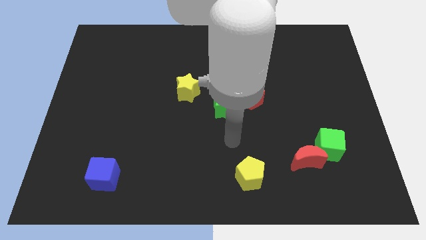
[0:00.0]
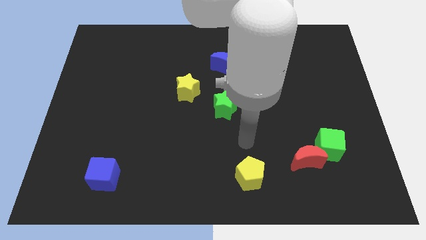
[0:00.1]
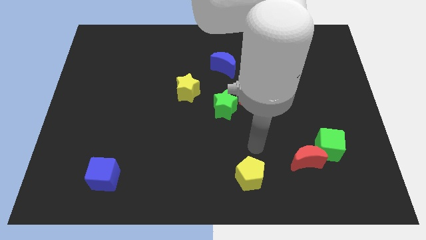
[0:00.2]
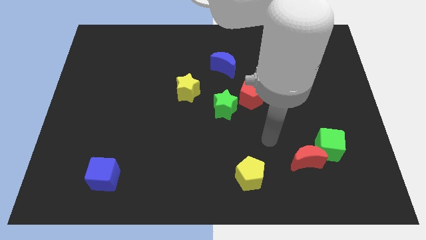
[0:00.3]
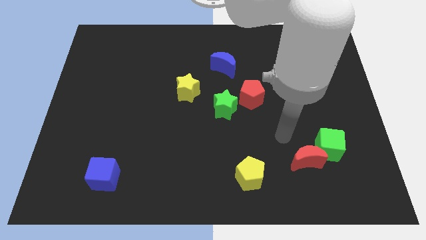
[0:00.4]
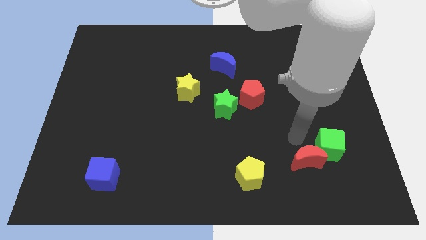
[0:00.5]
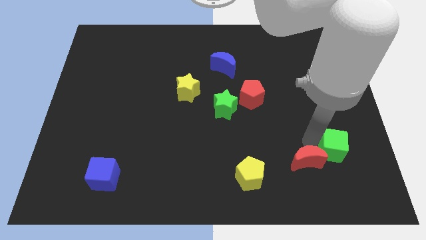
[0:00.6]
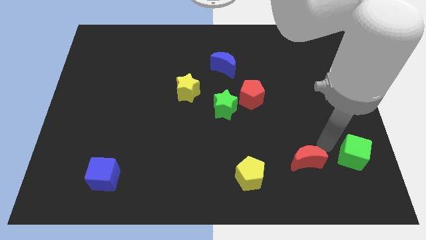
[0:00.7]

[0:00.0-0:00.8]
move the red moon away from the green cube

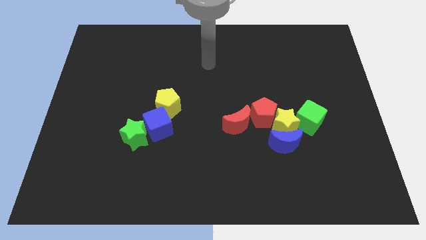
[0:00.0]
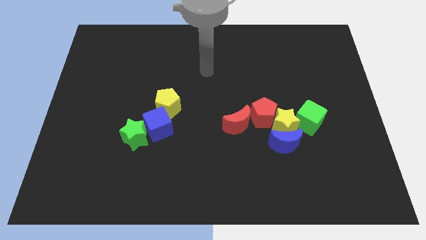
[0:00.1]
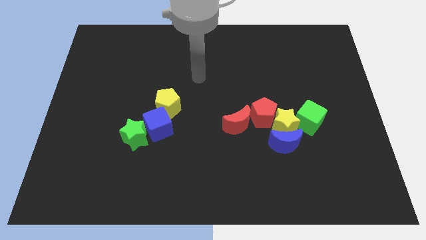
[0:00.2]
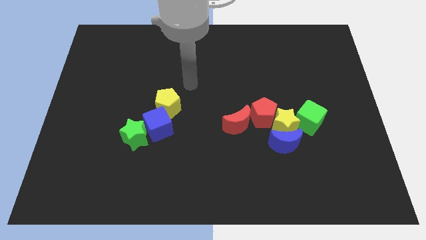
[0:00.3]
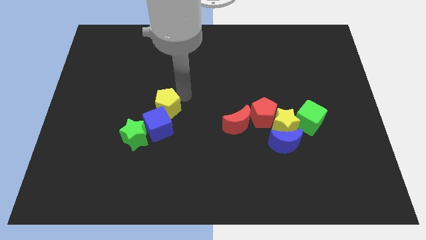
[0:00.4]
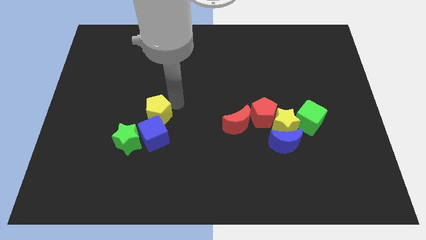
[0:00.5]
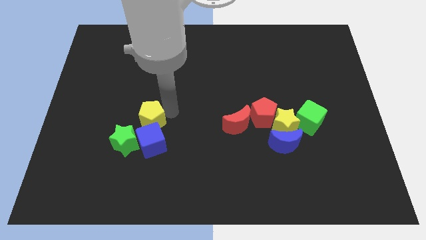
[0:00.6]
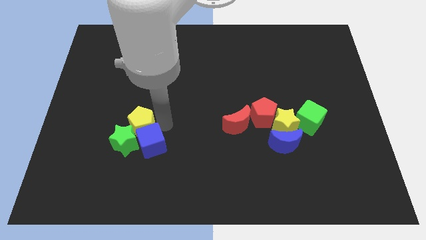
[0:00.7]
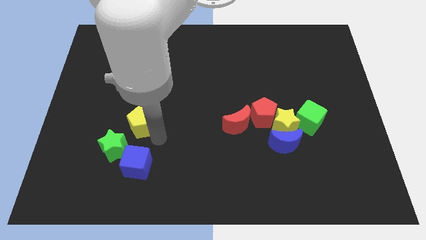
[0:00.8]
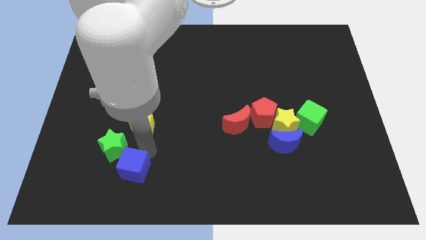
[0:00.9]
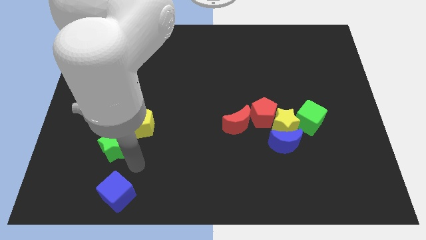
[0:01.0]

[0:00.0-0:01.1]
move the green star away from the blue cube

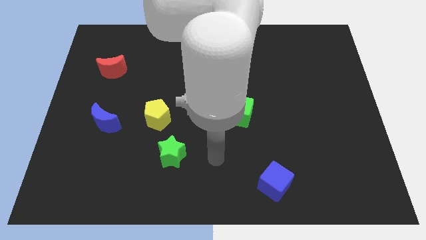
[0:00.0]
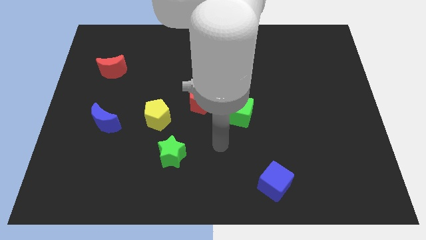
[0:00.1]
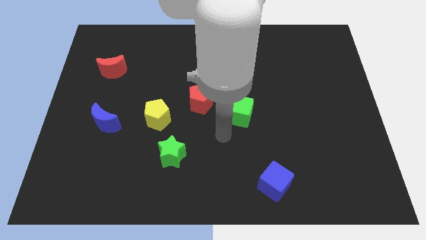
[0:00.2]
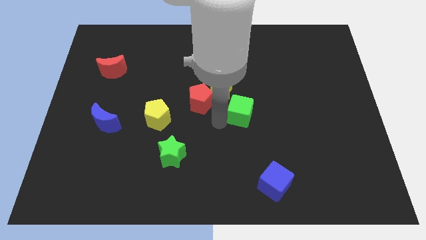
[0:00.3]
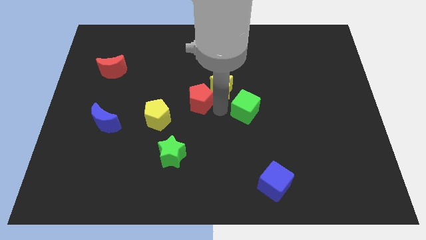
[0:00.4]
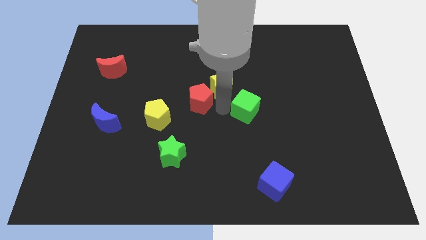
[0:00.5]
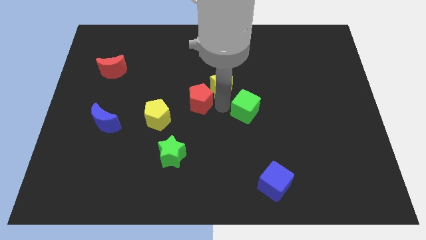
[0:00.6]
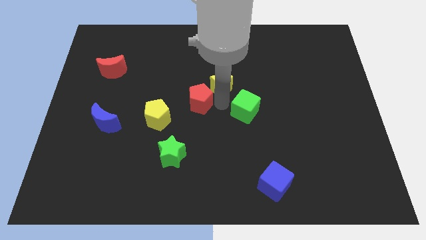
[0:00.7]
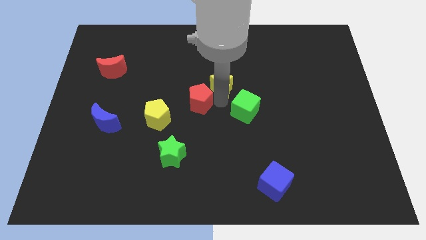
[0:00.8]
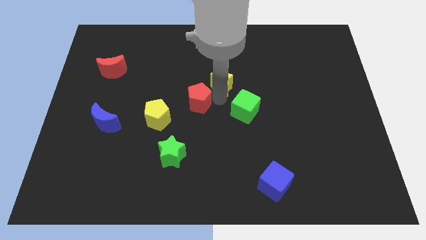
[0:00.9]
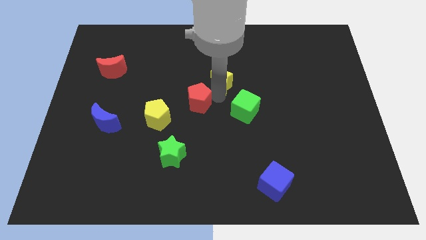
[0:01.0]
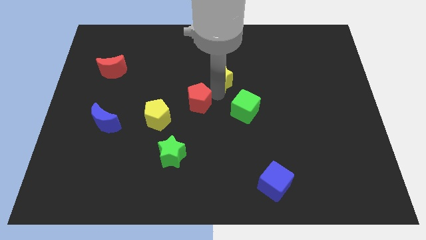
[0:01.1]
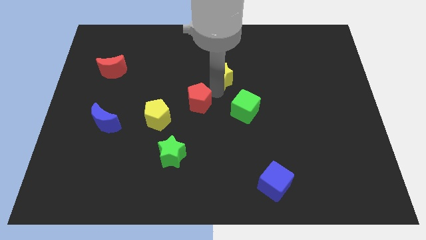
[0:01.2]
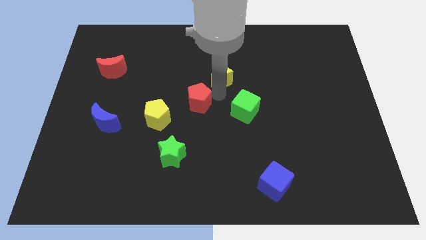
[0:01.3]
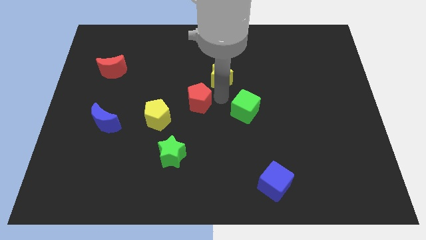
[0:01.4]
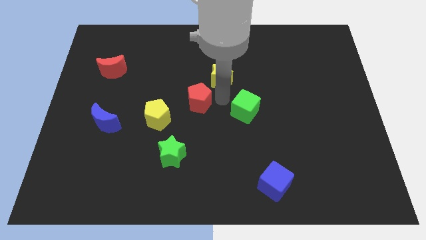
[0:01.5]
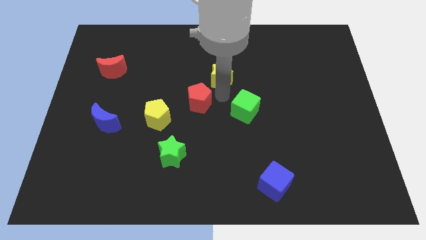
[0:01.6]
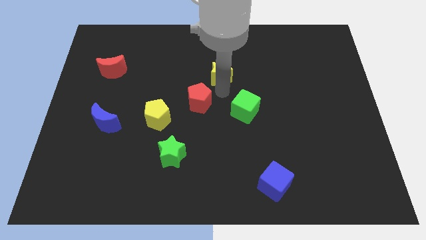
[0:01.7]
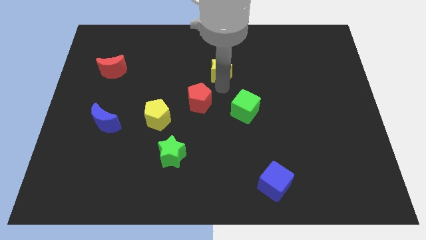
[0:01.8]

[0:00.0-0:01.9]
separate the yellow star from the red pentagon and green cube

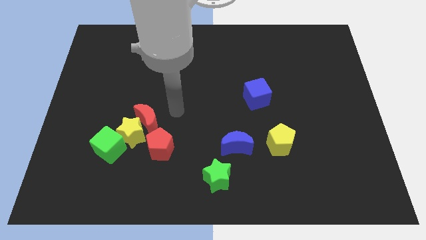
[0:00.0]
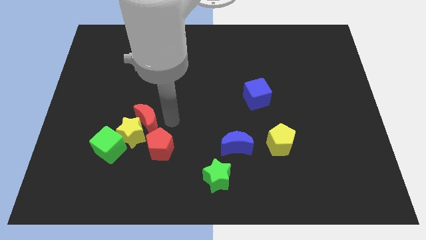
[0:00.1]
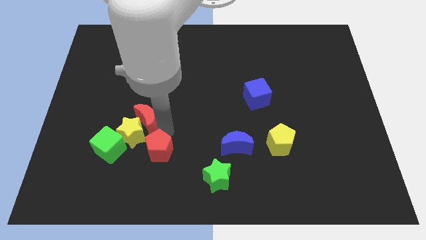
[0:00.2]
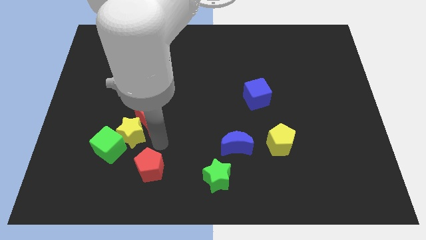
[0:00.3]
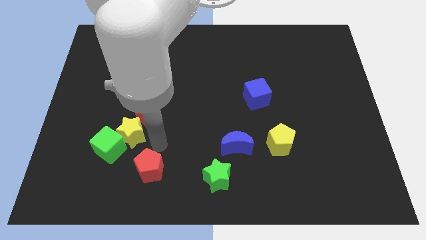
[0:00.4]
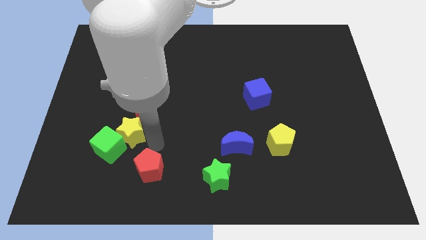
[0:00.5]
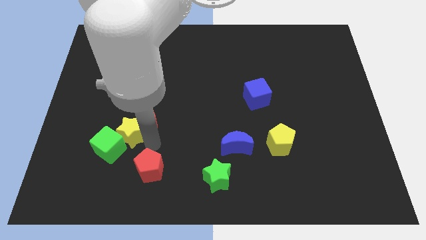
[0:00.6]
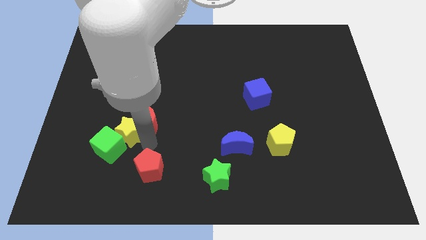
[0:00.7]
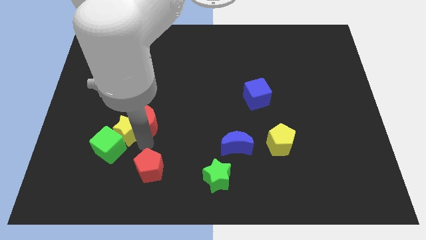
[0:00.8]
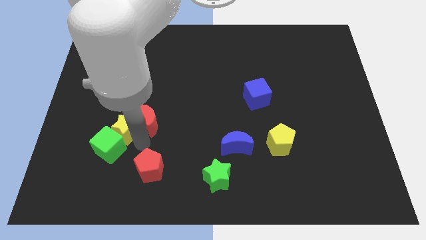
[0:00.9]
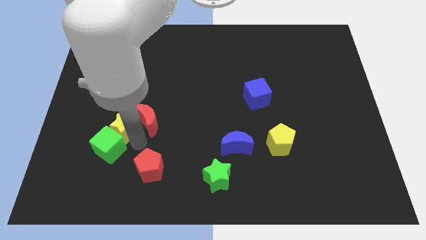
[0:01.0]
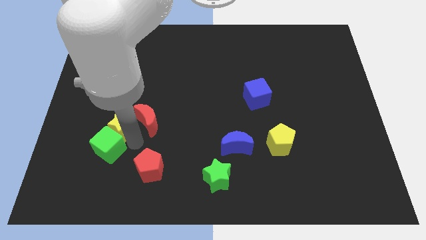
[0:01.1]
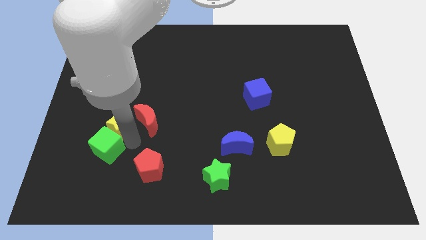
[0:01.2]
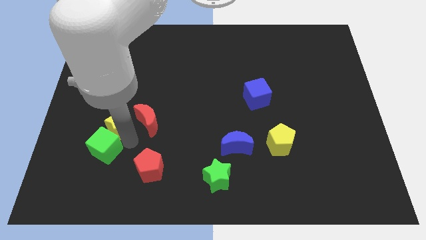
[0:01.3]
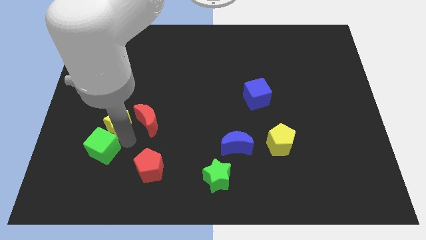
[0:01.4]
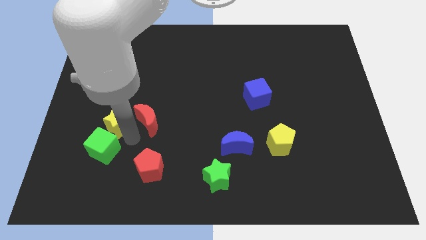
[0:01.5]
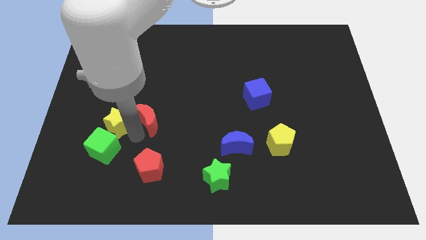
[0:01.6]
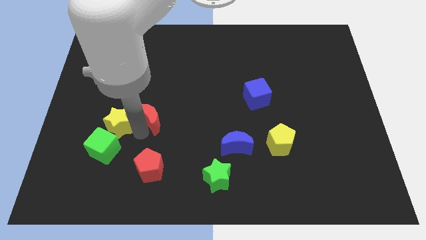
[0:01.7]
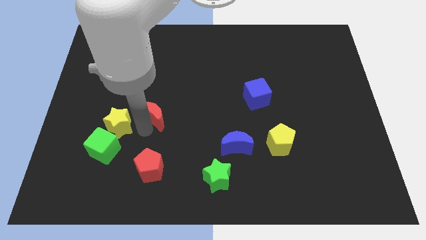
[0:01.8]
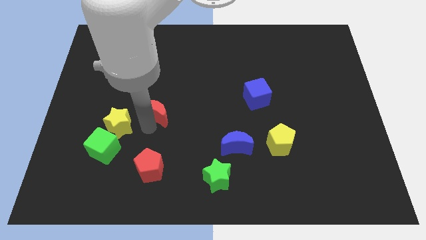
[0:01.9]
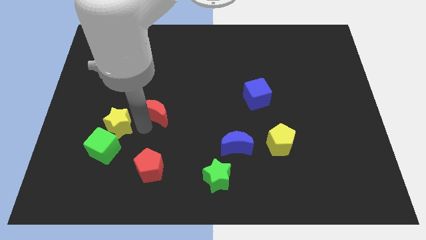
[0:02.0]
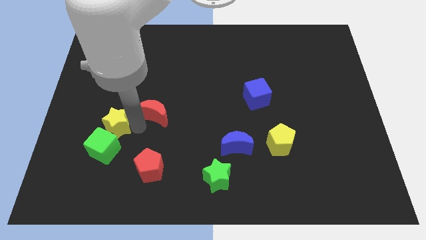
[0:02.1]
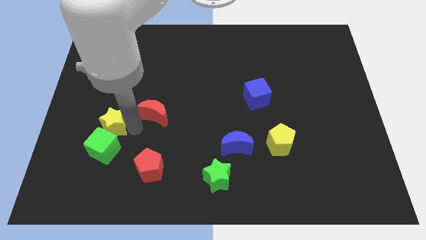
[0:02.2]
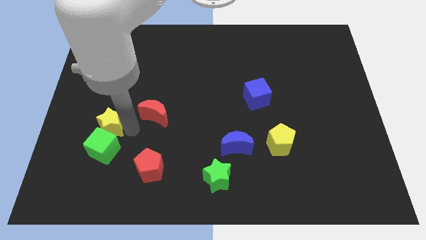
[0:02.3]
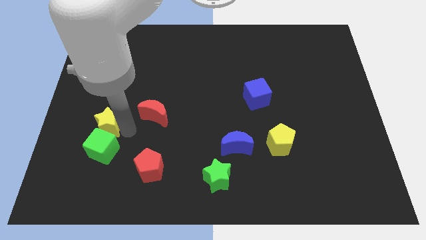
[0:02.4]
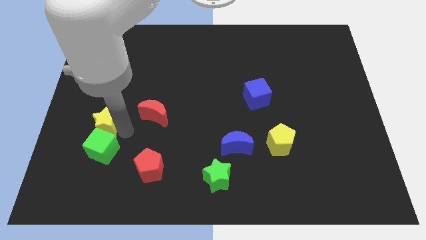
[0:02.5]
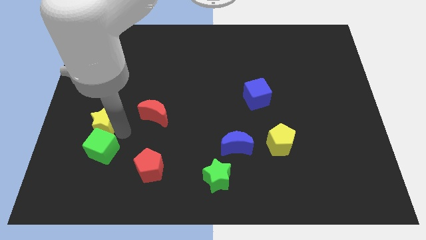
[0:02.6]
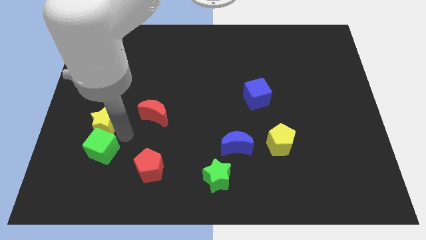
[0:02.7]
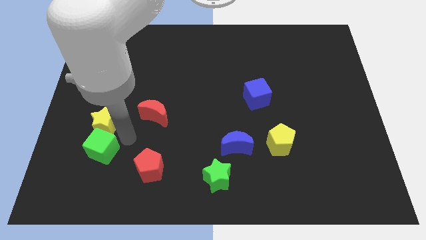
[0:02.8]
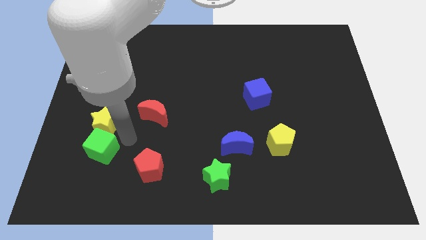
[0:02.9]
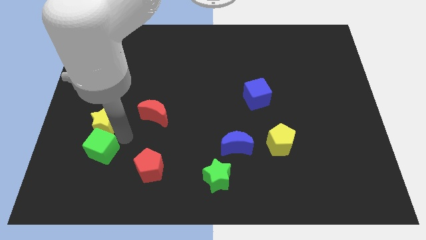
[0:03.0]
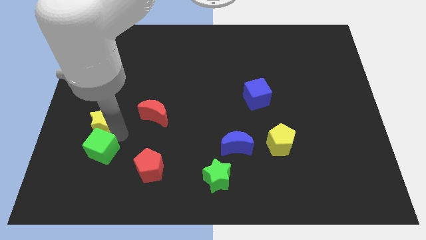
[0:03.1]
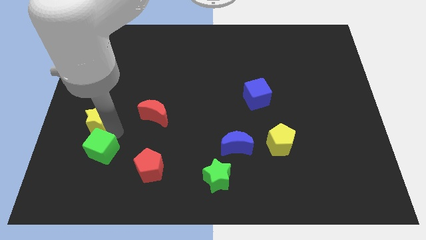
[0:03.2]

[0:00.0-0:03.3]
move the yellow star away from the red moon, green cube, and red pentagon

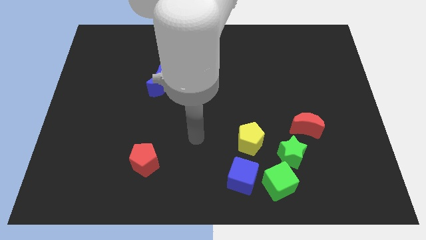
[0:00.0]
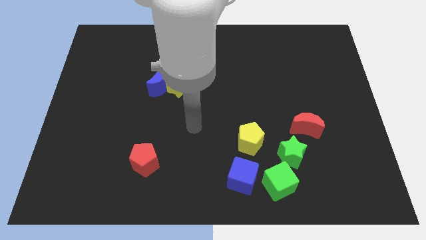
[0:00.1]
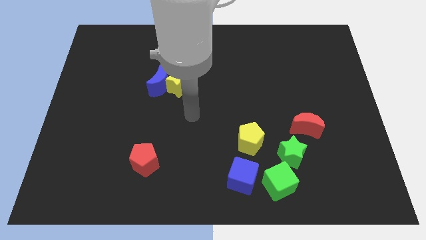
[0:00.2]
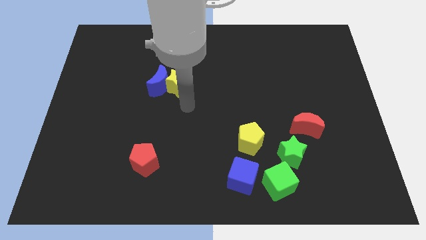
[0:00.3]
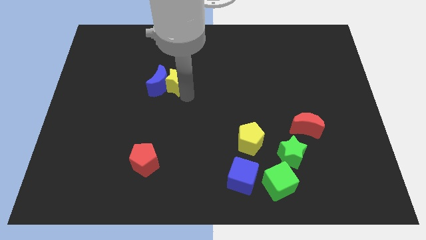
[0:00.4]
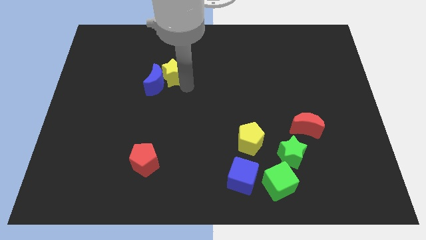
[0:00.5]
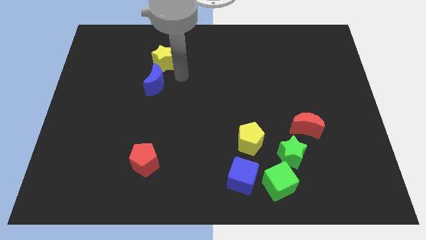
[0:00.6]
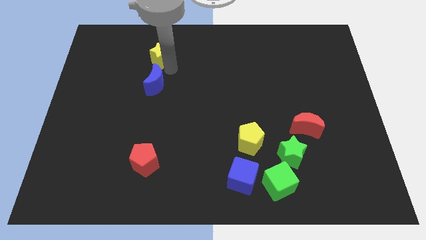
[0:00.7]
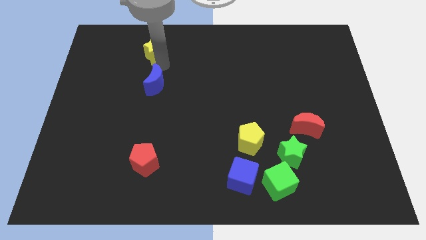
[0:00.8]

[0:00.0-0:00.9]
separate the blue moon from the yellow star

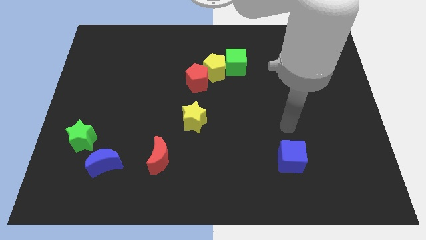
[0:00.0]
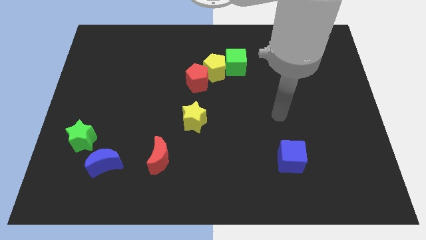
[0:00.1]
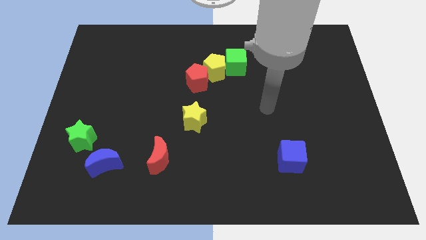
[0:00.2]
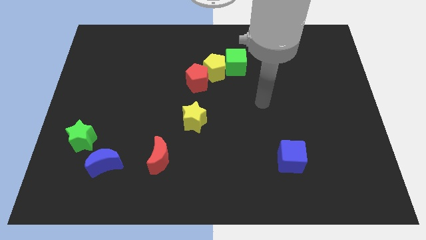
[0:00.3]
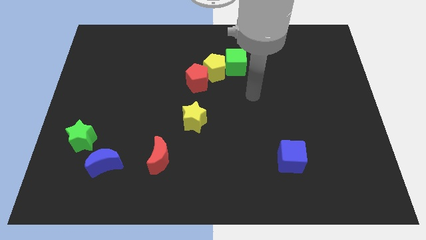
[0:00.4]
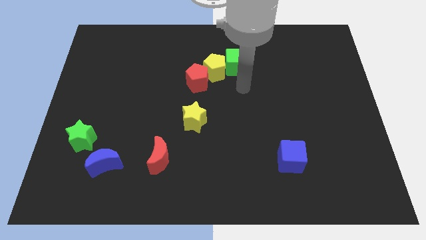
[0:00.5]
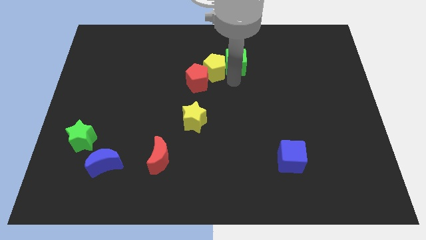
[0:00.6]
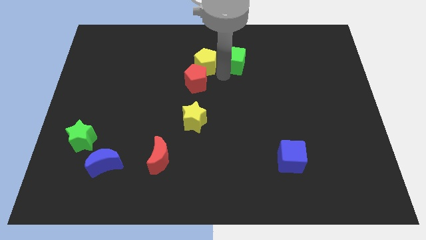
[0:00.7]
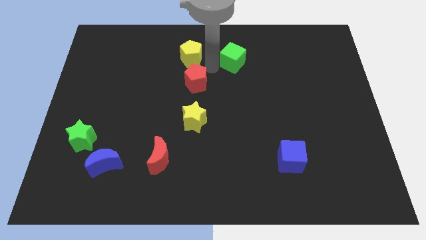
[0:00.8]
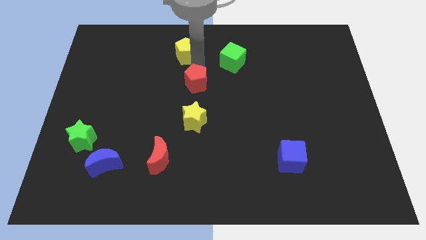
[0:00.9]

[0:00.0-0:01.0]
move the red pentagon away from the yellow pentagon

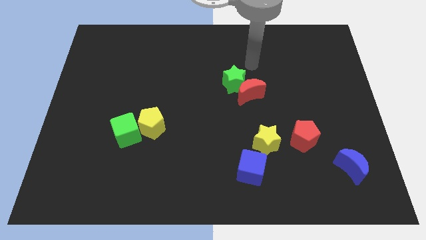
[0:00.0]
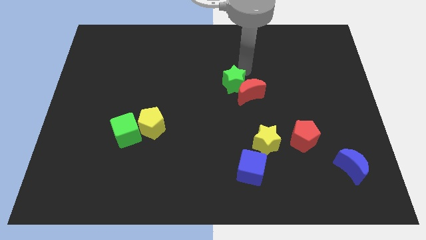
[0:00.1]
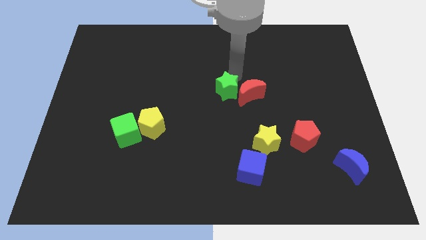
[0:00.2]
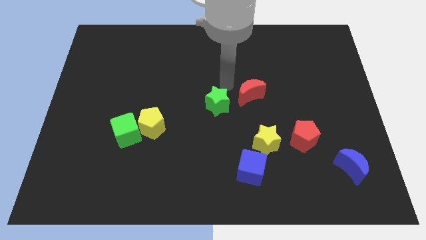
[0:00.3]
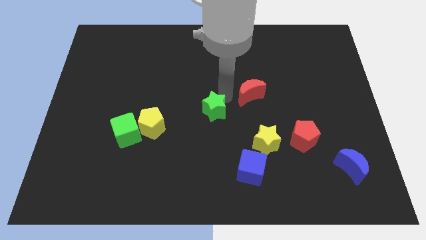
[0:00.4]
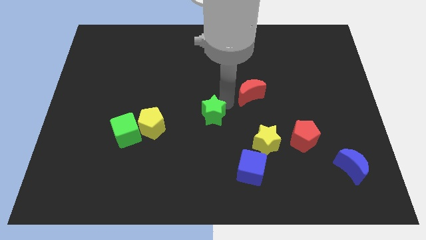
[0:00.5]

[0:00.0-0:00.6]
pull the red moon apart from the green star
